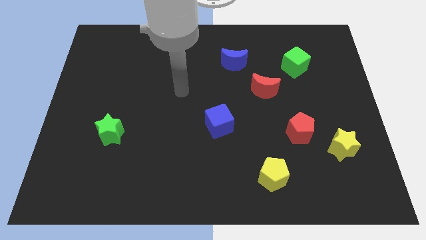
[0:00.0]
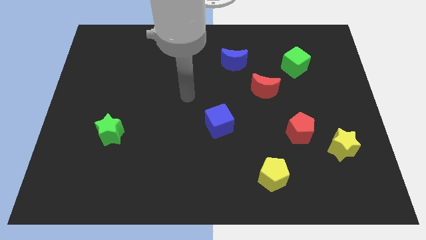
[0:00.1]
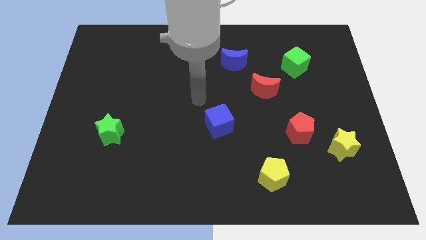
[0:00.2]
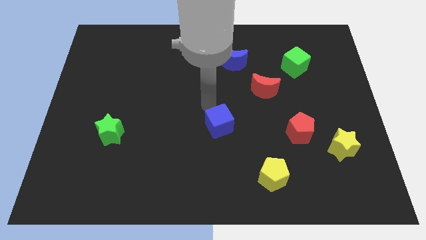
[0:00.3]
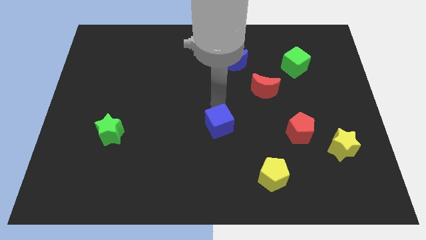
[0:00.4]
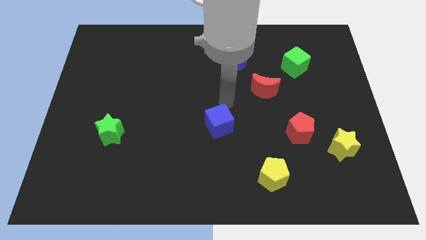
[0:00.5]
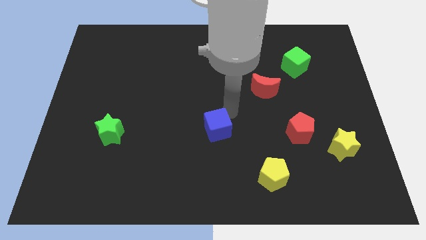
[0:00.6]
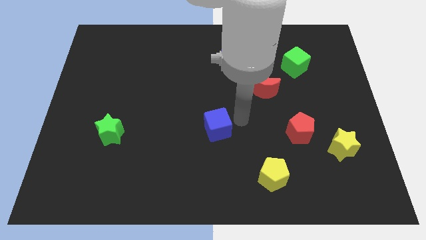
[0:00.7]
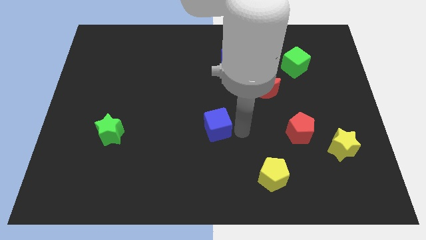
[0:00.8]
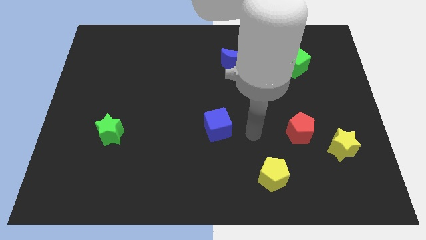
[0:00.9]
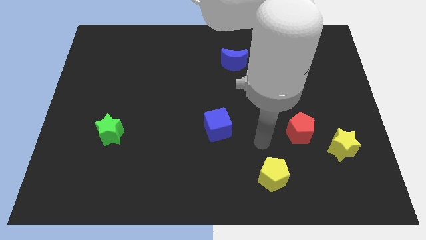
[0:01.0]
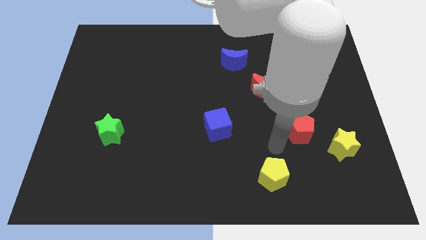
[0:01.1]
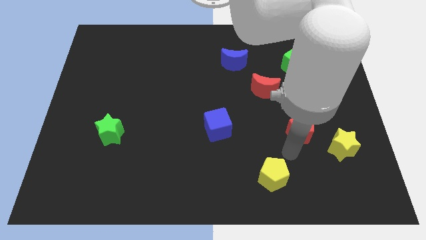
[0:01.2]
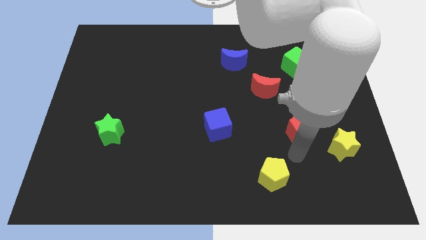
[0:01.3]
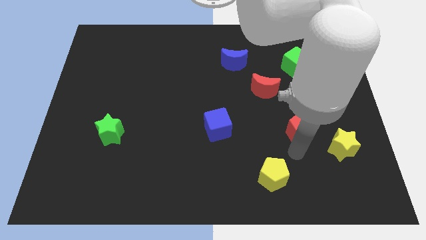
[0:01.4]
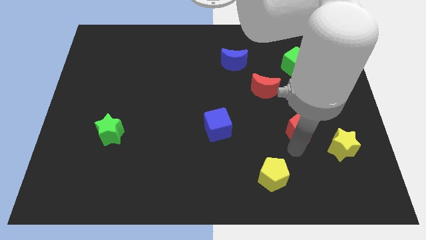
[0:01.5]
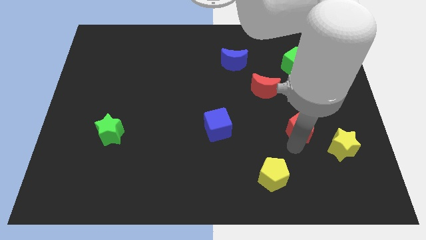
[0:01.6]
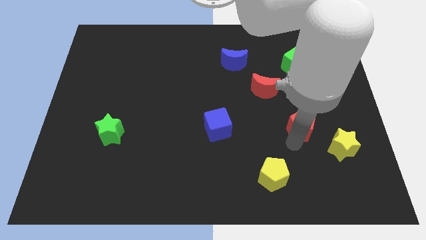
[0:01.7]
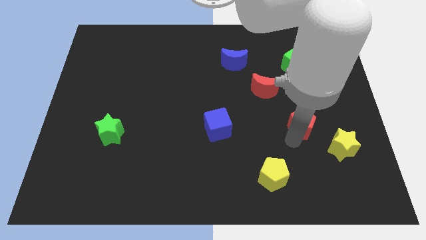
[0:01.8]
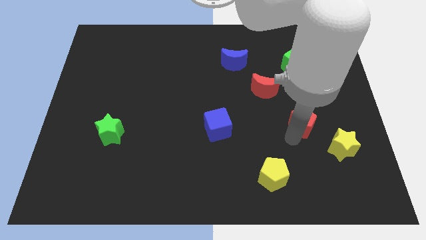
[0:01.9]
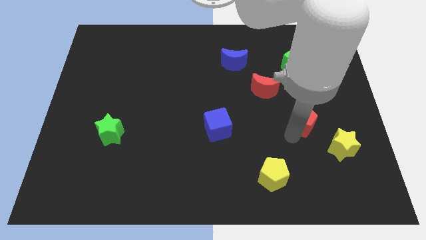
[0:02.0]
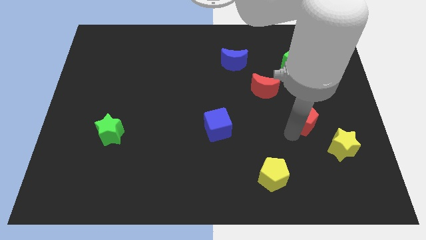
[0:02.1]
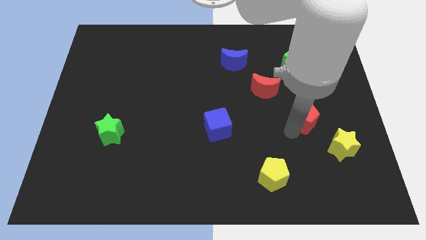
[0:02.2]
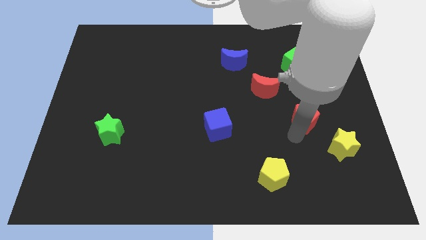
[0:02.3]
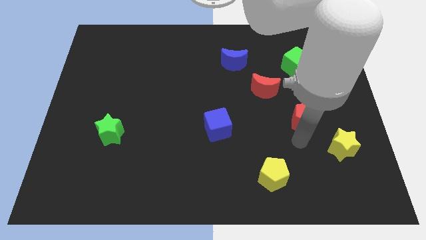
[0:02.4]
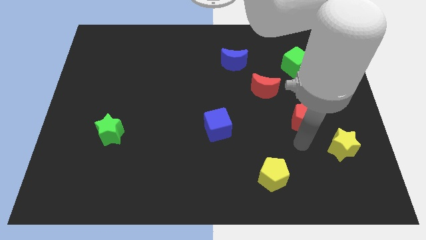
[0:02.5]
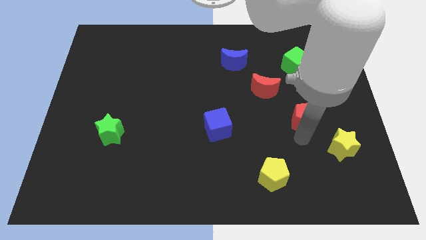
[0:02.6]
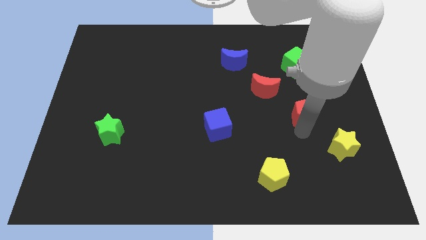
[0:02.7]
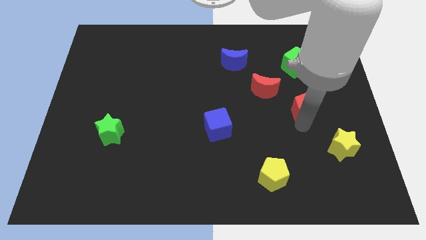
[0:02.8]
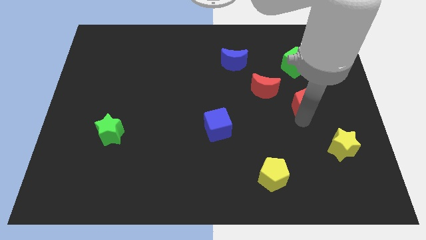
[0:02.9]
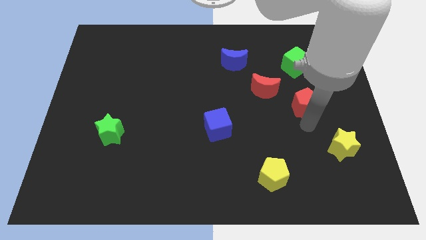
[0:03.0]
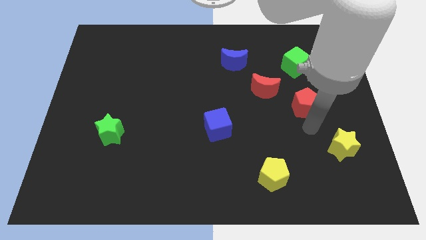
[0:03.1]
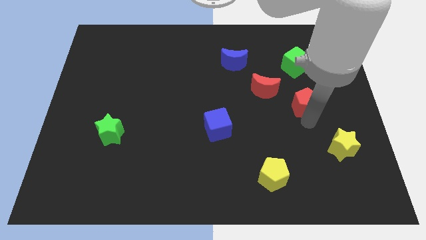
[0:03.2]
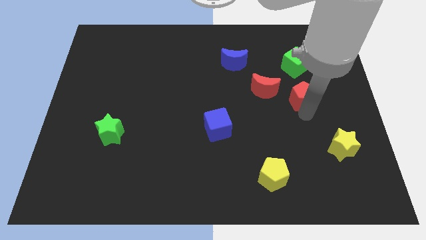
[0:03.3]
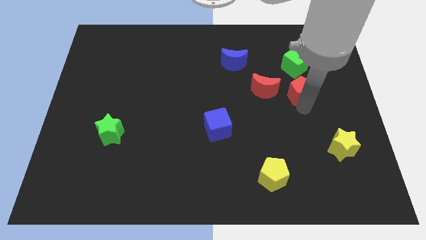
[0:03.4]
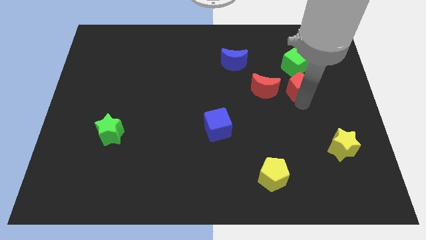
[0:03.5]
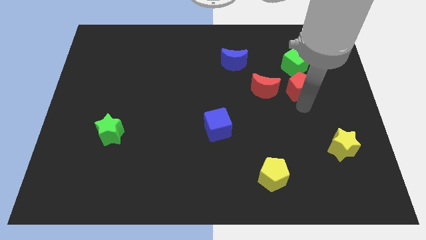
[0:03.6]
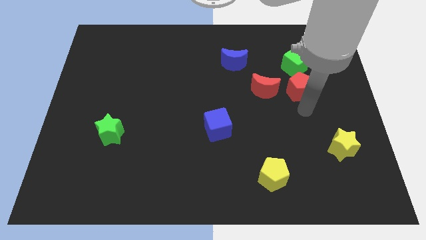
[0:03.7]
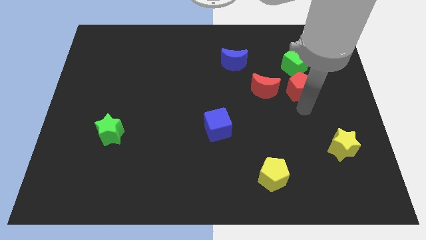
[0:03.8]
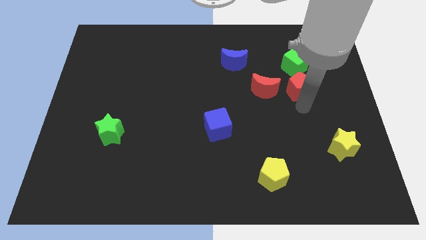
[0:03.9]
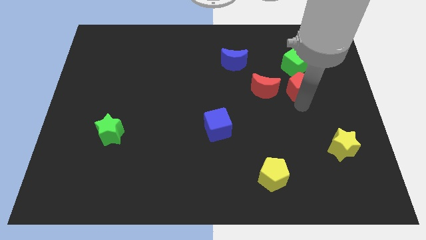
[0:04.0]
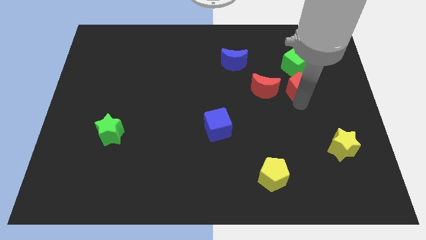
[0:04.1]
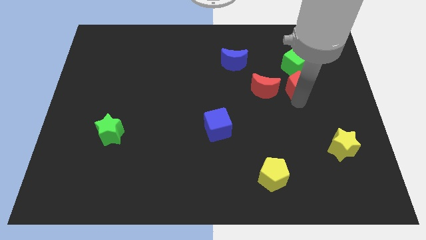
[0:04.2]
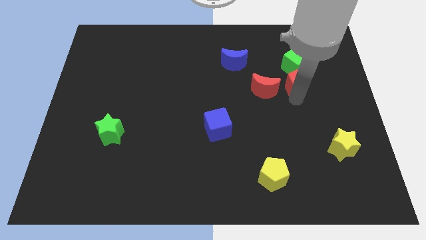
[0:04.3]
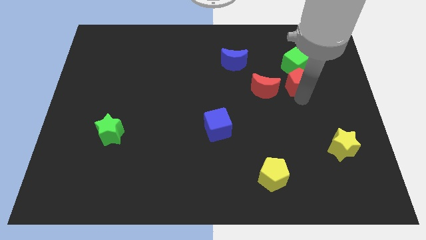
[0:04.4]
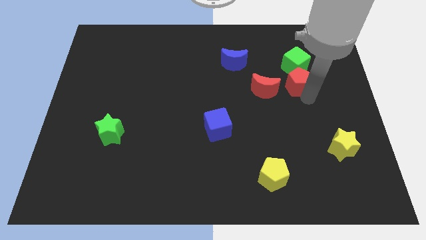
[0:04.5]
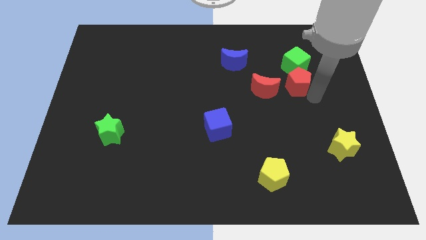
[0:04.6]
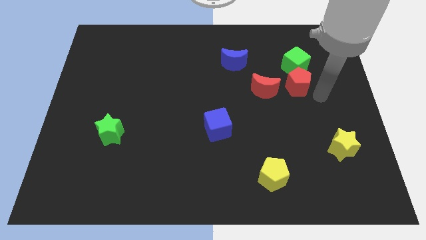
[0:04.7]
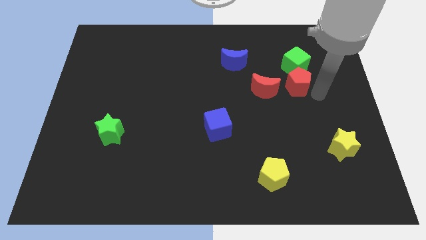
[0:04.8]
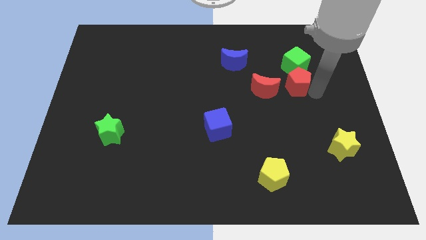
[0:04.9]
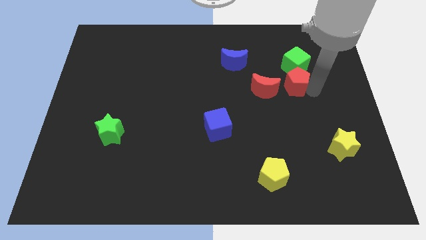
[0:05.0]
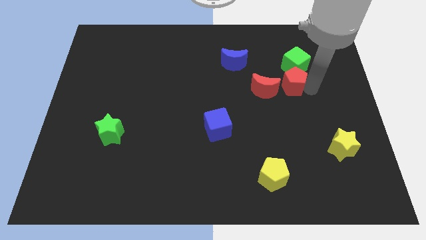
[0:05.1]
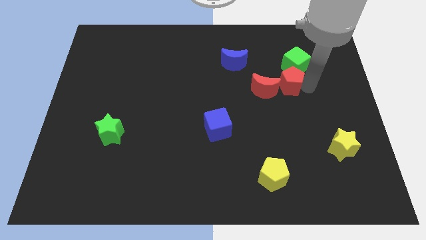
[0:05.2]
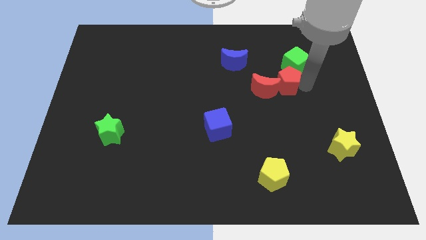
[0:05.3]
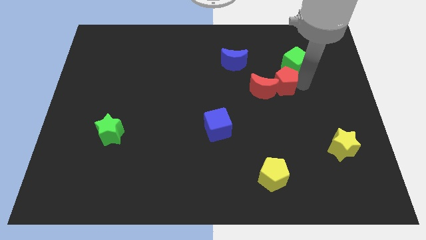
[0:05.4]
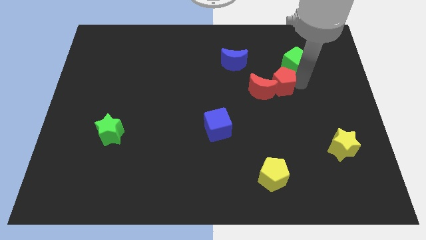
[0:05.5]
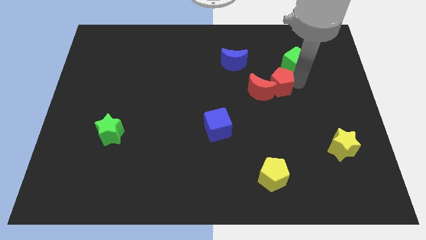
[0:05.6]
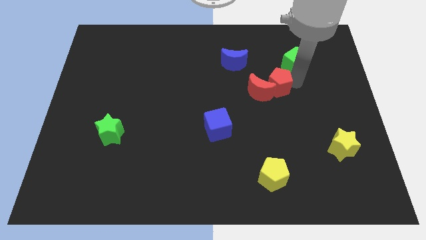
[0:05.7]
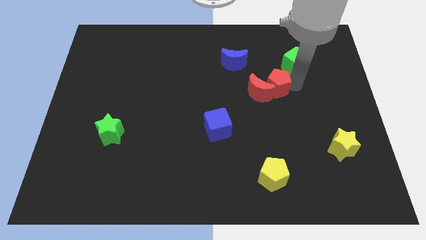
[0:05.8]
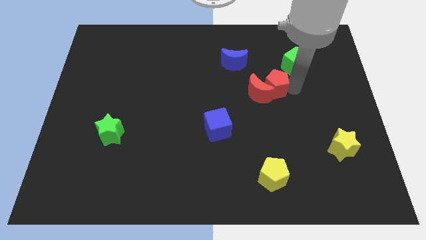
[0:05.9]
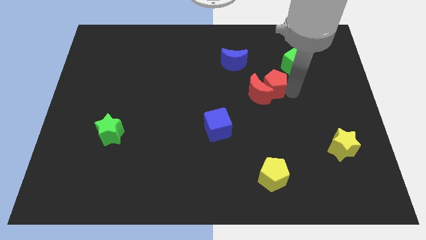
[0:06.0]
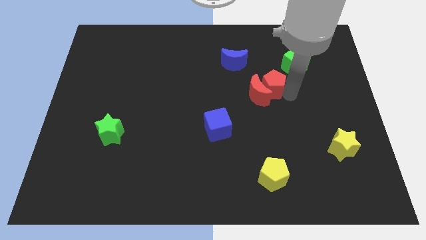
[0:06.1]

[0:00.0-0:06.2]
put the red pentagon above the red moon

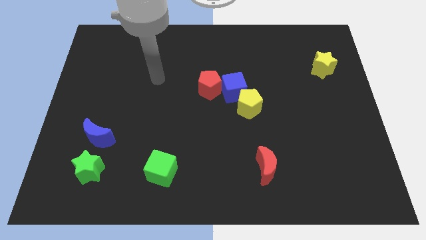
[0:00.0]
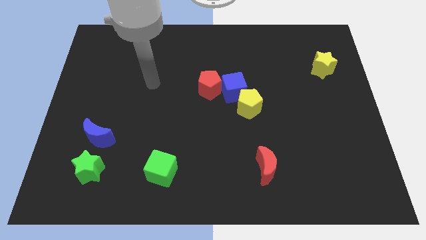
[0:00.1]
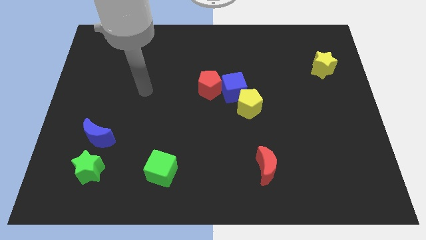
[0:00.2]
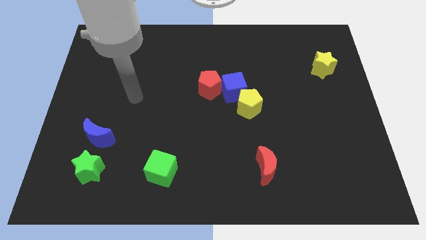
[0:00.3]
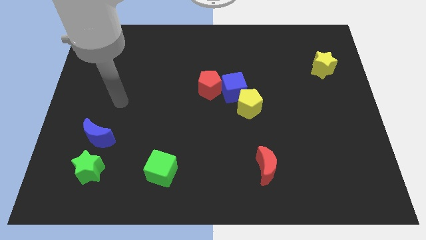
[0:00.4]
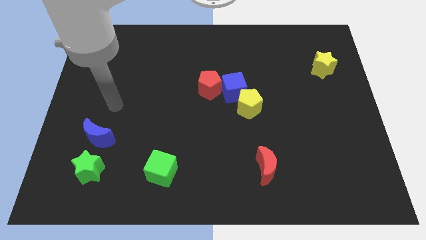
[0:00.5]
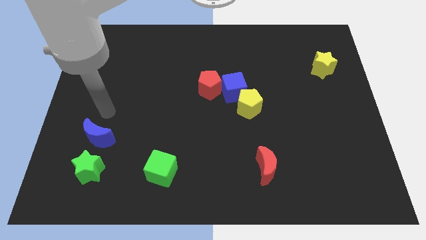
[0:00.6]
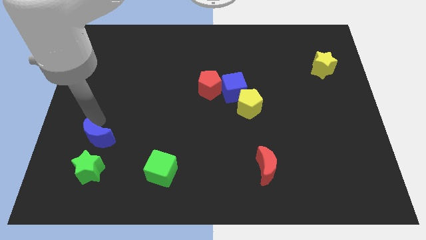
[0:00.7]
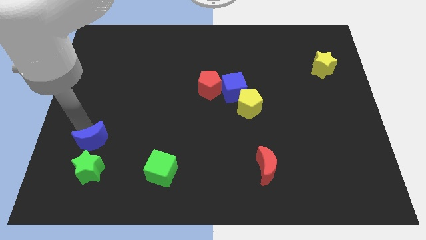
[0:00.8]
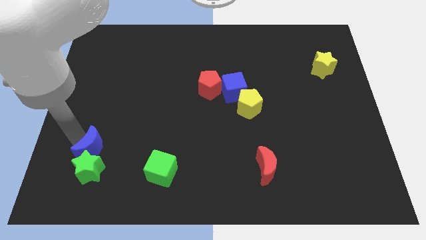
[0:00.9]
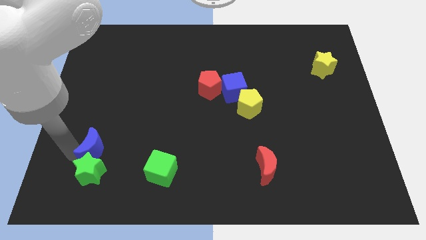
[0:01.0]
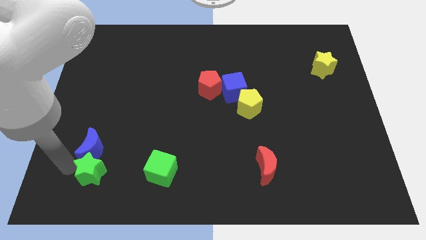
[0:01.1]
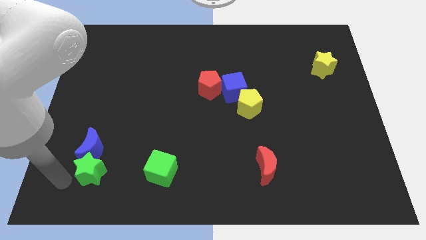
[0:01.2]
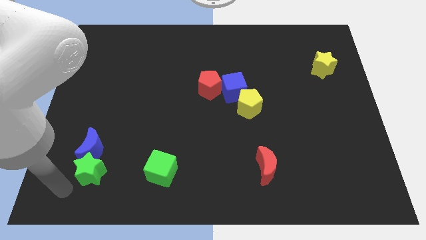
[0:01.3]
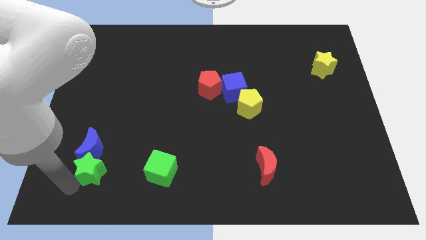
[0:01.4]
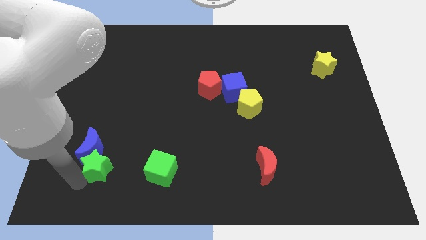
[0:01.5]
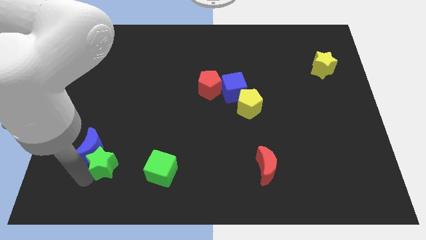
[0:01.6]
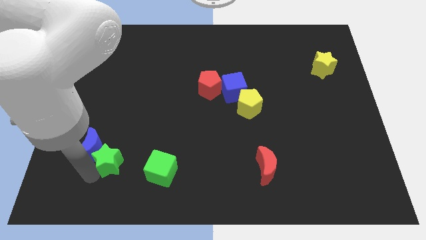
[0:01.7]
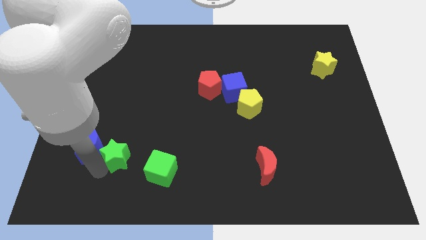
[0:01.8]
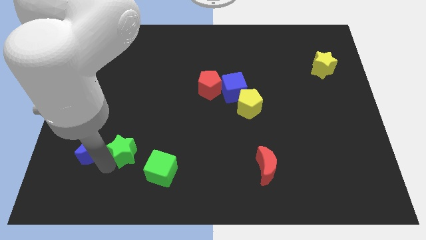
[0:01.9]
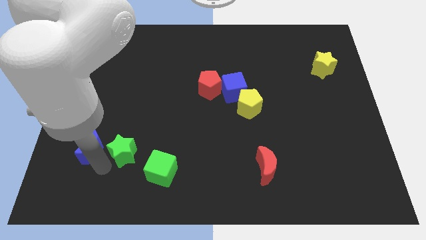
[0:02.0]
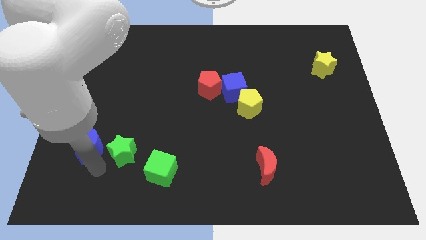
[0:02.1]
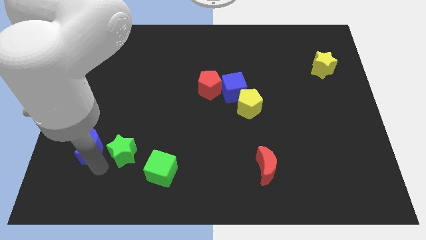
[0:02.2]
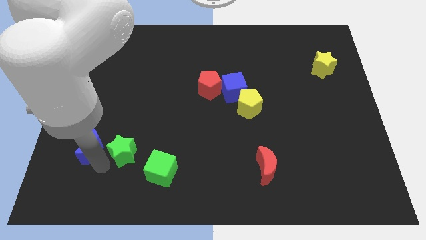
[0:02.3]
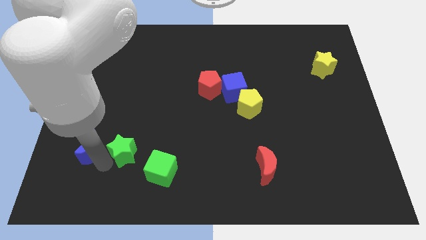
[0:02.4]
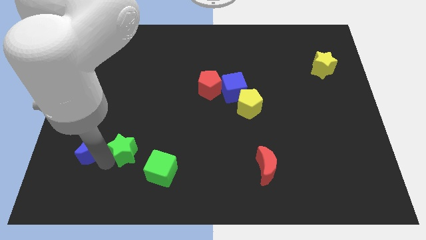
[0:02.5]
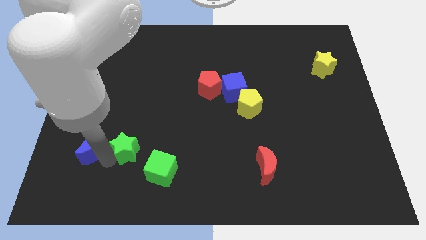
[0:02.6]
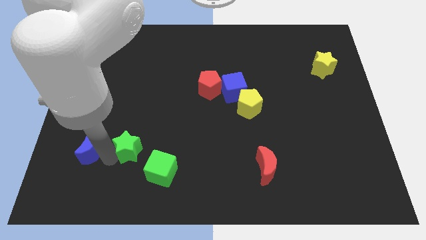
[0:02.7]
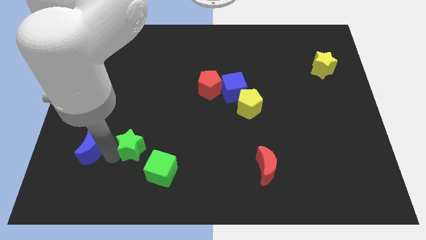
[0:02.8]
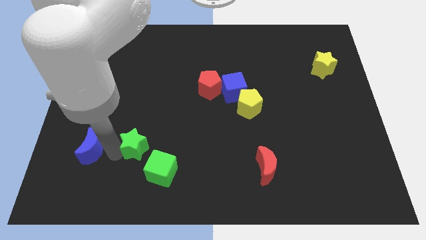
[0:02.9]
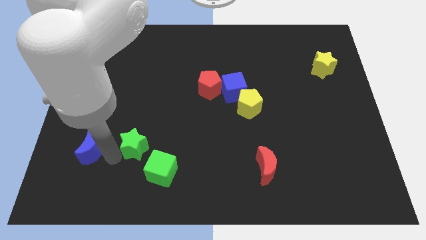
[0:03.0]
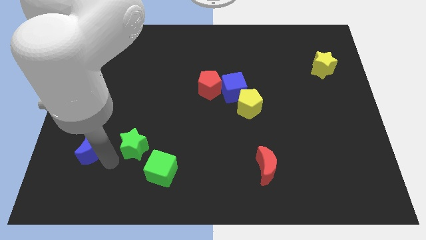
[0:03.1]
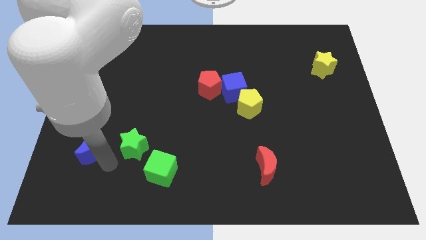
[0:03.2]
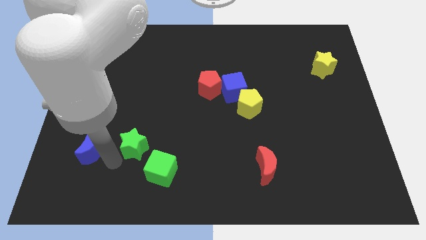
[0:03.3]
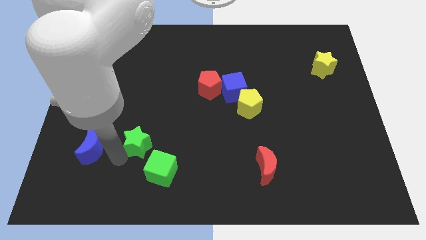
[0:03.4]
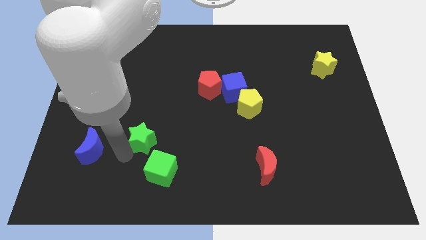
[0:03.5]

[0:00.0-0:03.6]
put the green star to the top of the green cube
